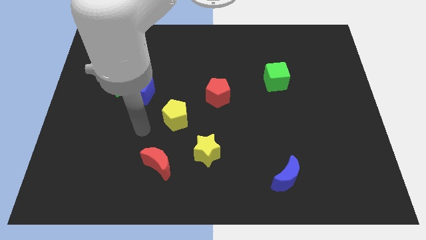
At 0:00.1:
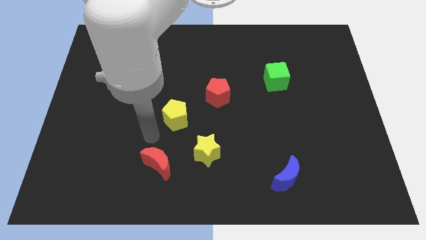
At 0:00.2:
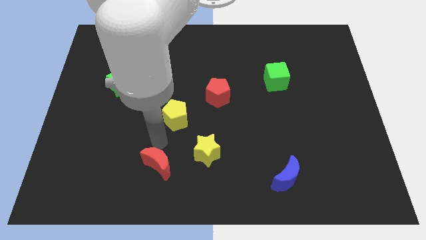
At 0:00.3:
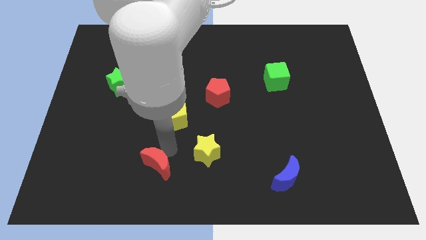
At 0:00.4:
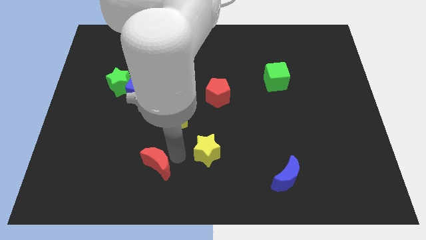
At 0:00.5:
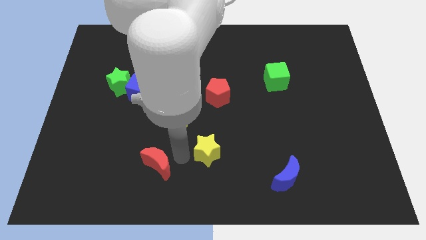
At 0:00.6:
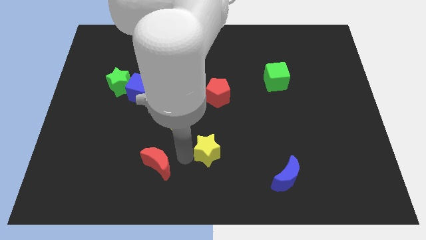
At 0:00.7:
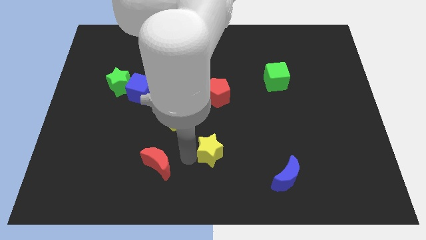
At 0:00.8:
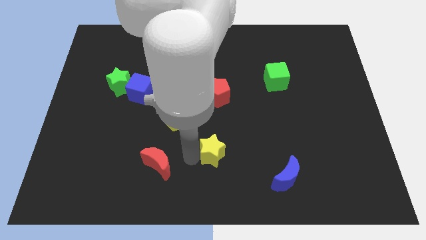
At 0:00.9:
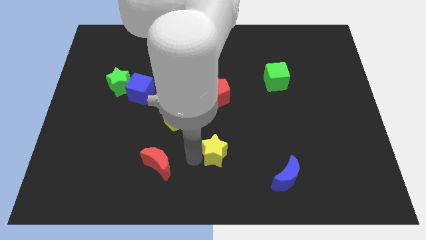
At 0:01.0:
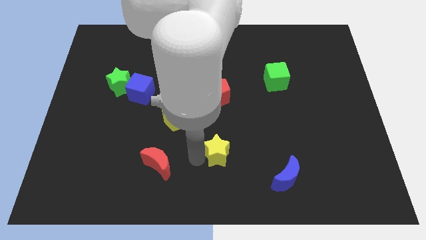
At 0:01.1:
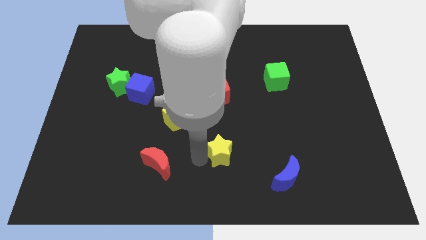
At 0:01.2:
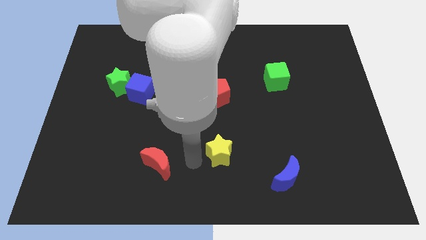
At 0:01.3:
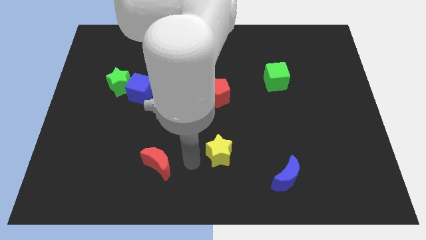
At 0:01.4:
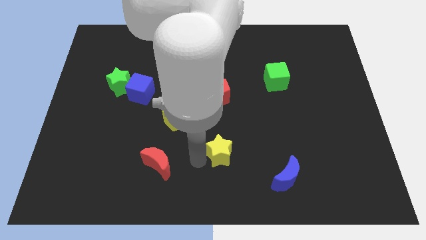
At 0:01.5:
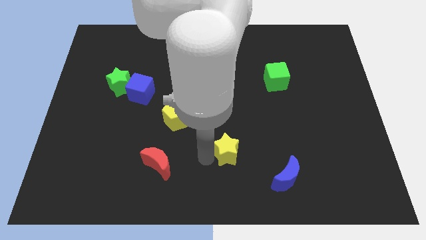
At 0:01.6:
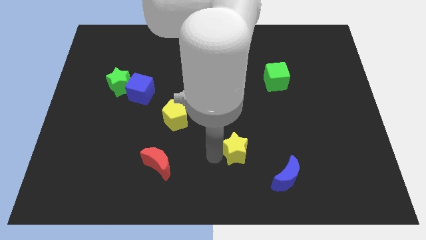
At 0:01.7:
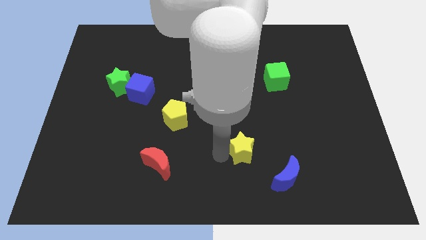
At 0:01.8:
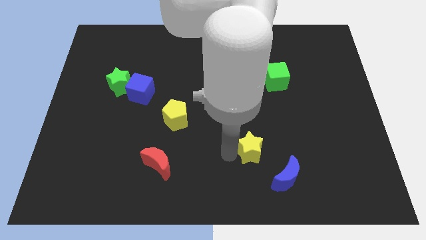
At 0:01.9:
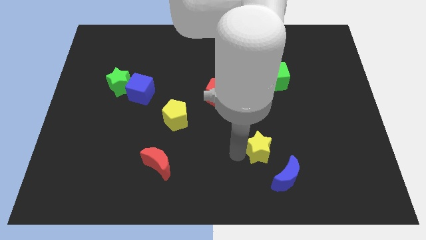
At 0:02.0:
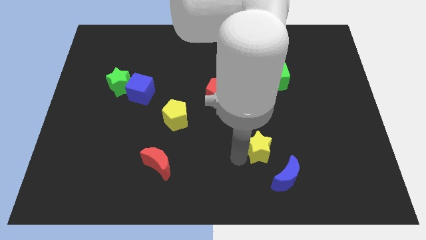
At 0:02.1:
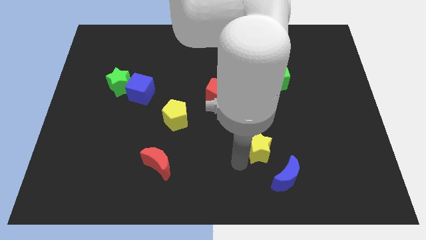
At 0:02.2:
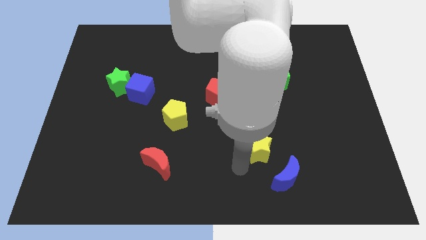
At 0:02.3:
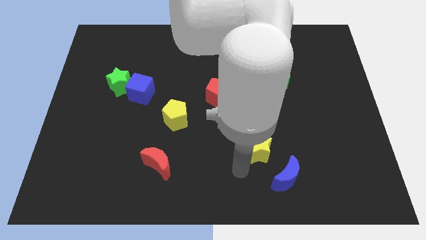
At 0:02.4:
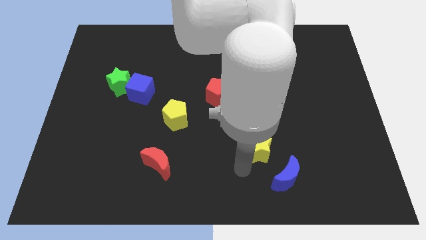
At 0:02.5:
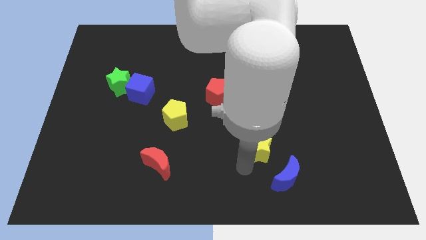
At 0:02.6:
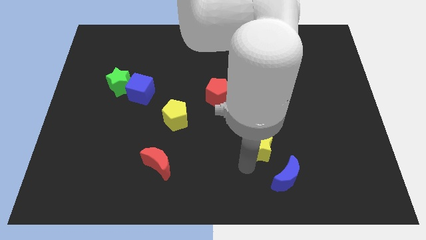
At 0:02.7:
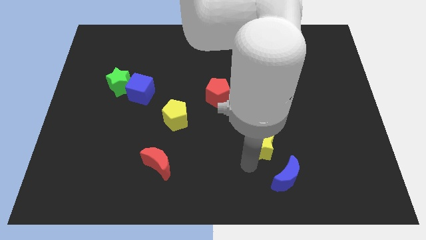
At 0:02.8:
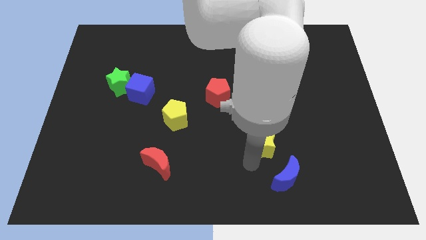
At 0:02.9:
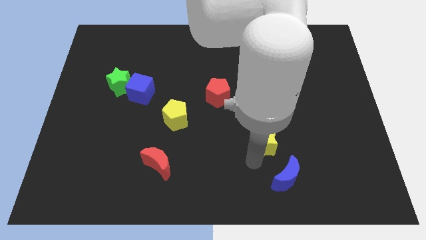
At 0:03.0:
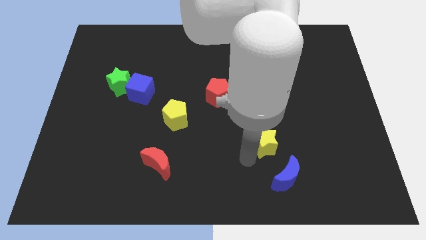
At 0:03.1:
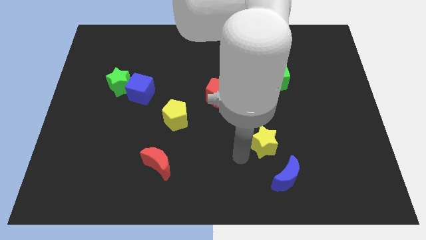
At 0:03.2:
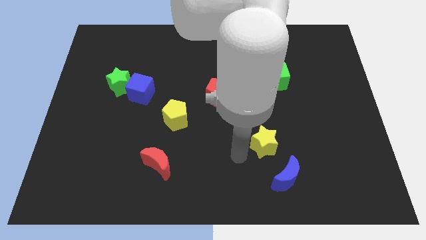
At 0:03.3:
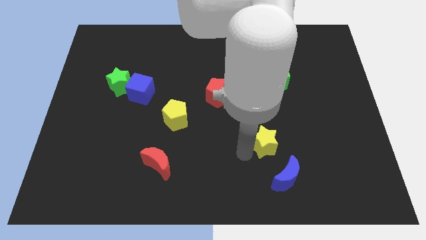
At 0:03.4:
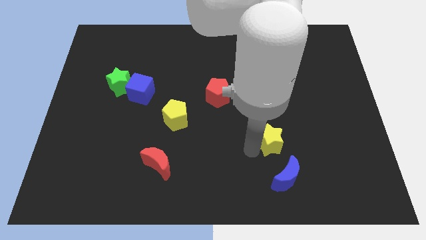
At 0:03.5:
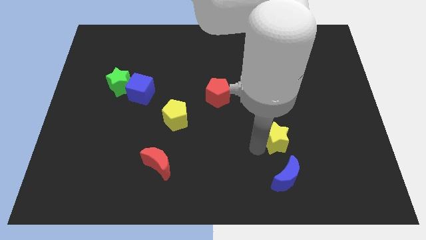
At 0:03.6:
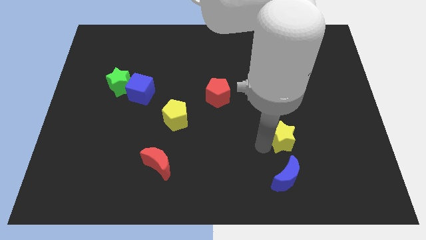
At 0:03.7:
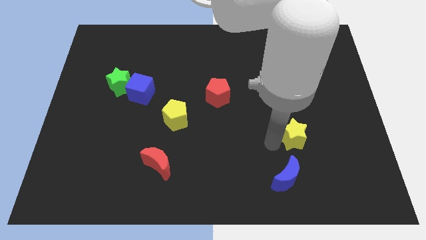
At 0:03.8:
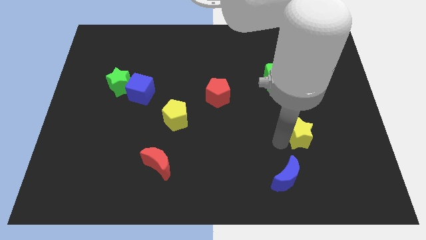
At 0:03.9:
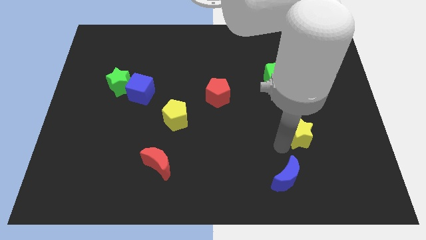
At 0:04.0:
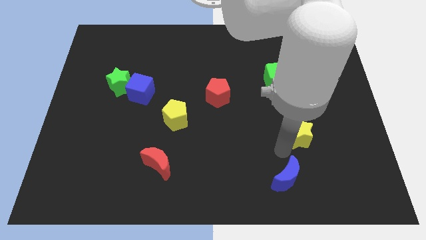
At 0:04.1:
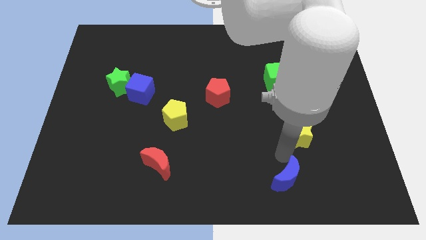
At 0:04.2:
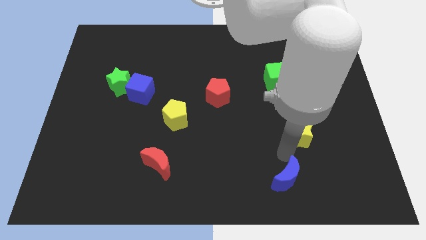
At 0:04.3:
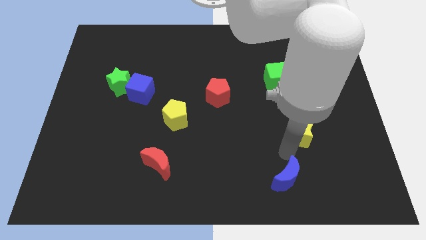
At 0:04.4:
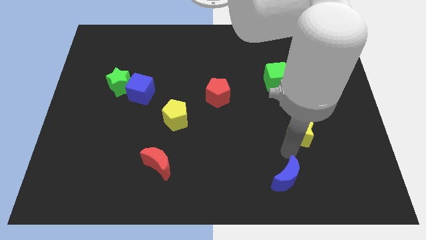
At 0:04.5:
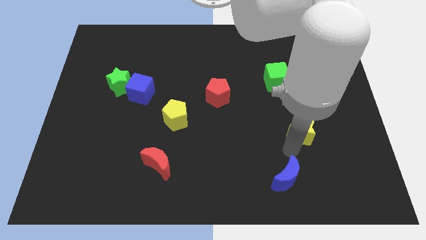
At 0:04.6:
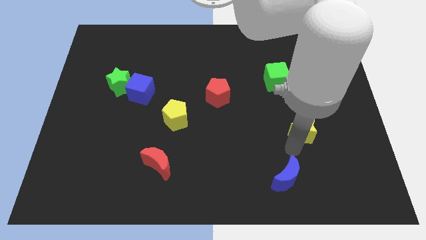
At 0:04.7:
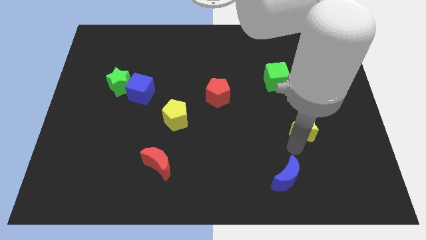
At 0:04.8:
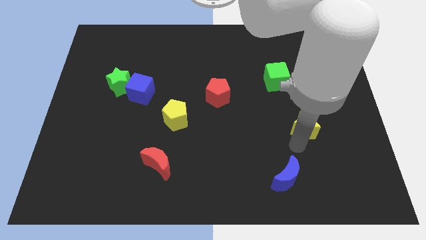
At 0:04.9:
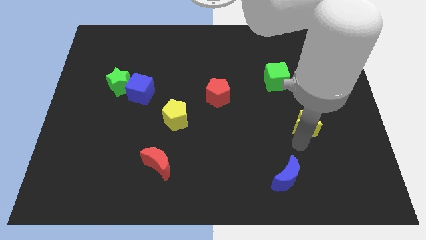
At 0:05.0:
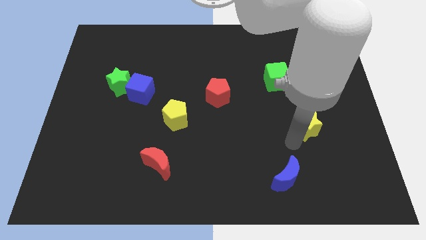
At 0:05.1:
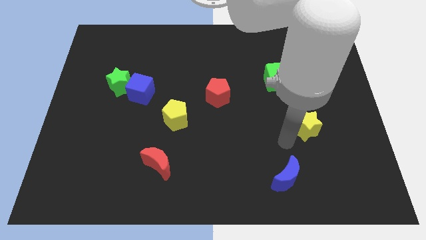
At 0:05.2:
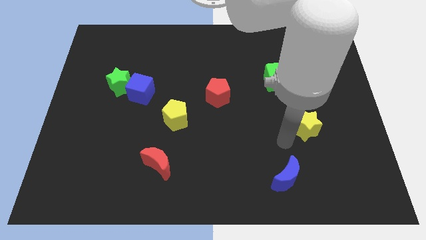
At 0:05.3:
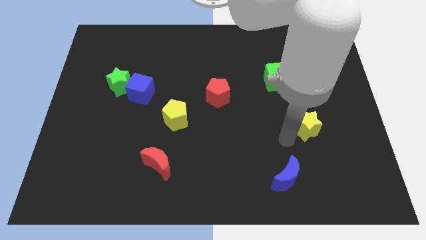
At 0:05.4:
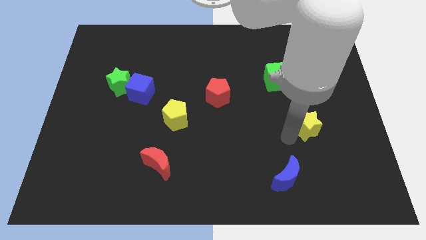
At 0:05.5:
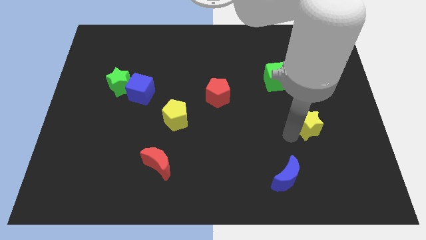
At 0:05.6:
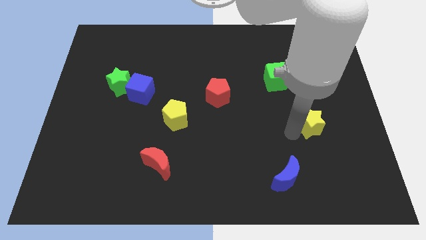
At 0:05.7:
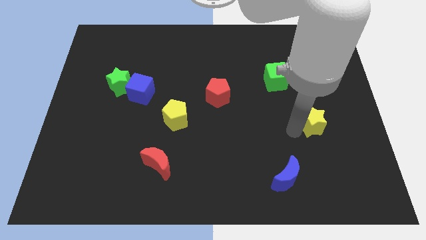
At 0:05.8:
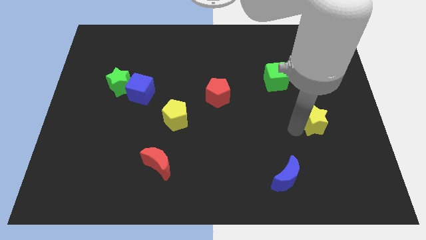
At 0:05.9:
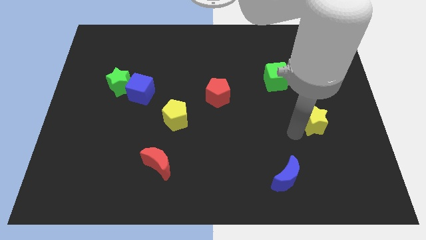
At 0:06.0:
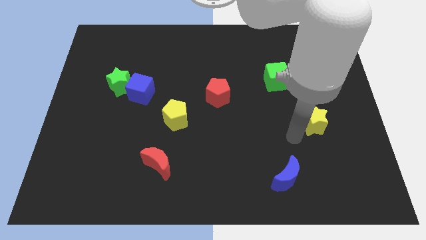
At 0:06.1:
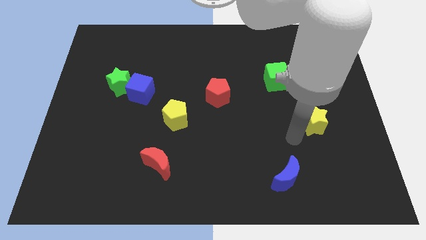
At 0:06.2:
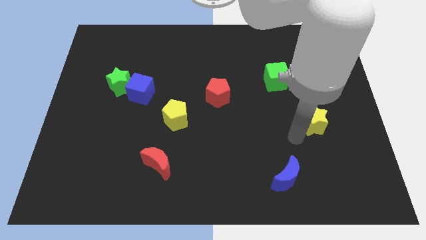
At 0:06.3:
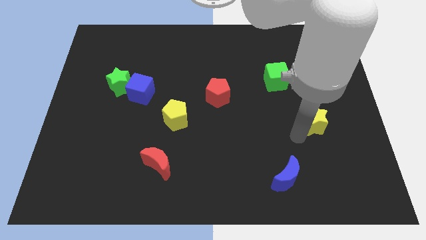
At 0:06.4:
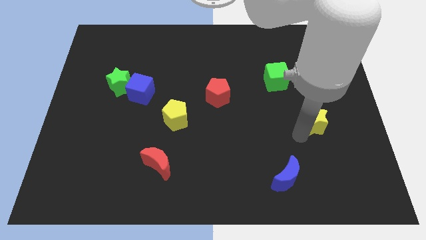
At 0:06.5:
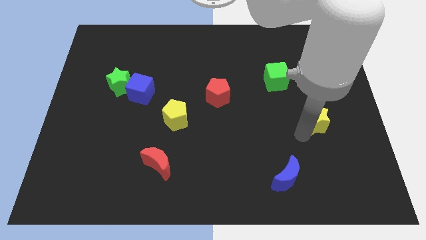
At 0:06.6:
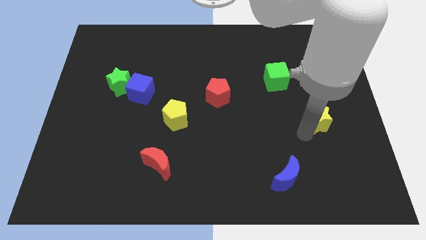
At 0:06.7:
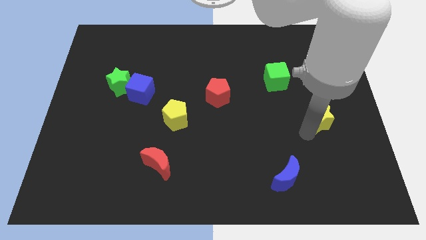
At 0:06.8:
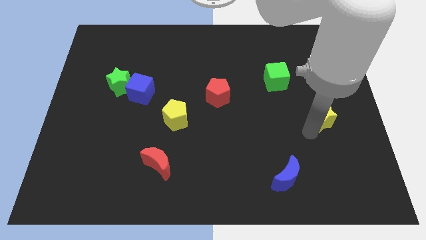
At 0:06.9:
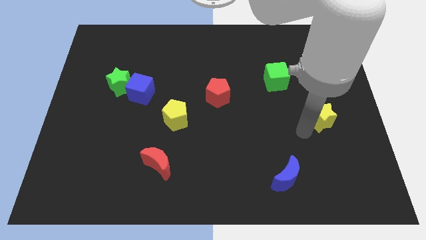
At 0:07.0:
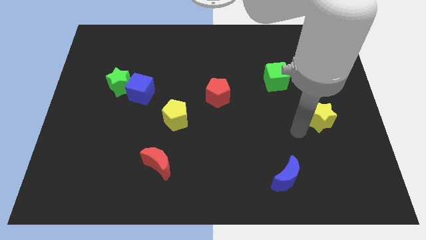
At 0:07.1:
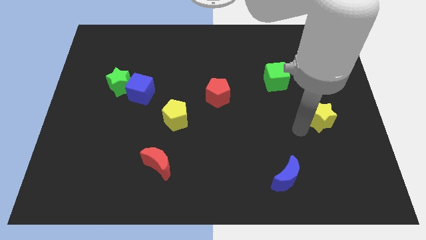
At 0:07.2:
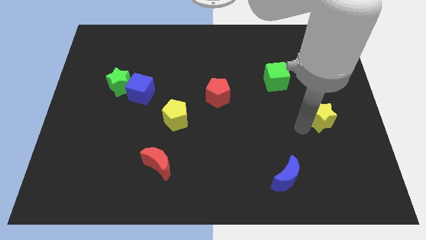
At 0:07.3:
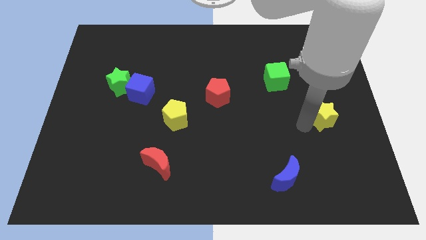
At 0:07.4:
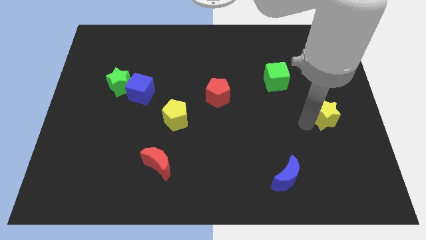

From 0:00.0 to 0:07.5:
move the yellow star to the right side
